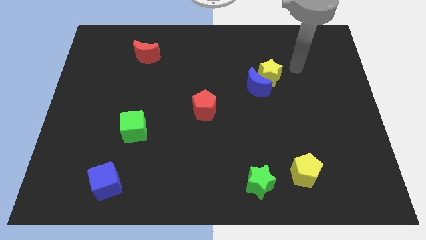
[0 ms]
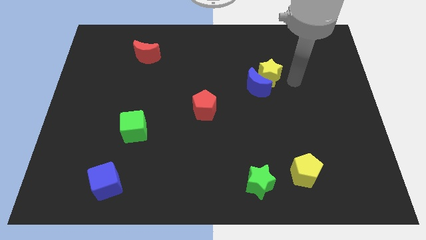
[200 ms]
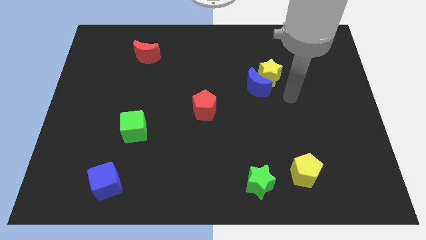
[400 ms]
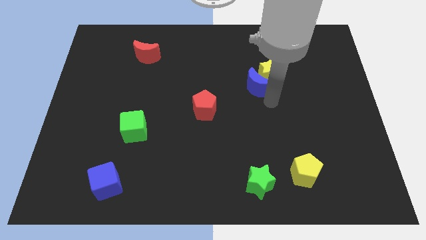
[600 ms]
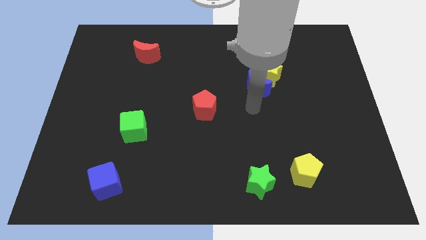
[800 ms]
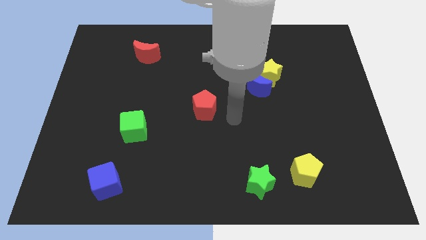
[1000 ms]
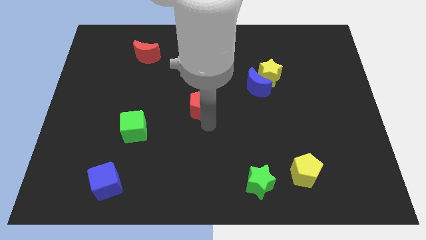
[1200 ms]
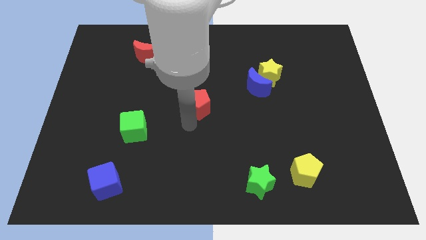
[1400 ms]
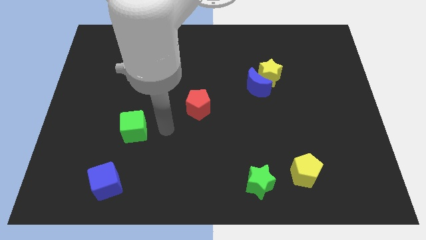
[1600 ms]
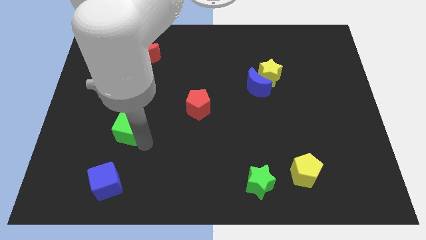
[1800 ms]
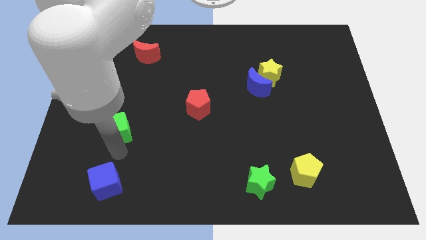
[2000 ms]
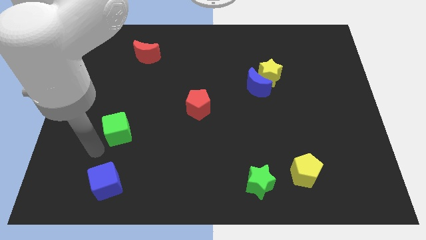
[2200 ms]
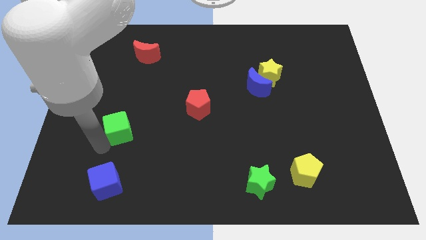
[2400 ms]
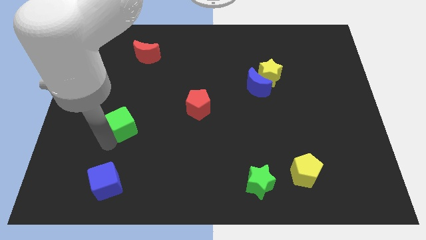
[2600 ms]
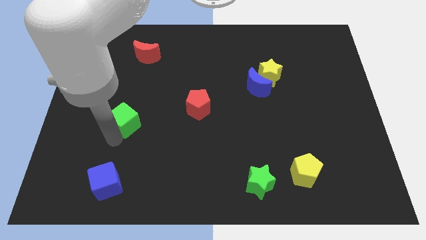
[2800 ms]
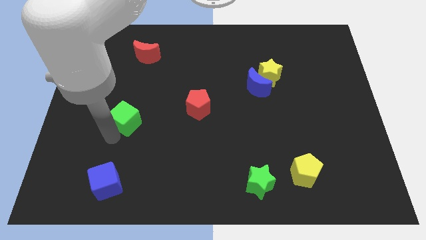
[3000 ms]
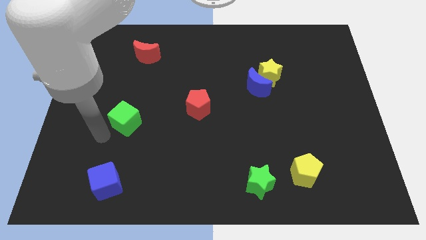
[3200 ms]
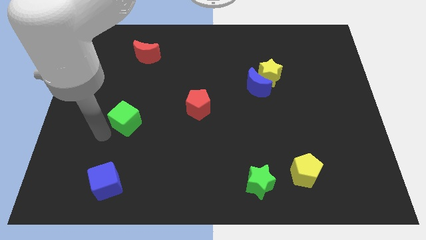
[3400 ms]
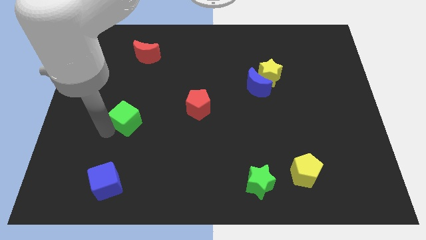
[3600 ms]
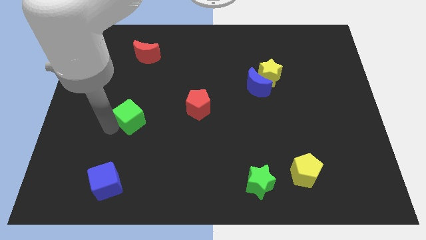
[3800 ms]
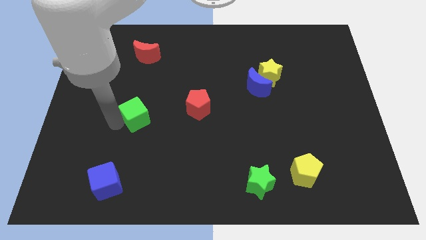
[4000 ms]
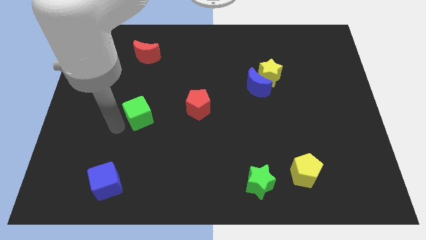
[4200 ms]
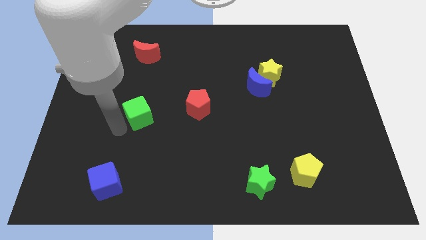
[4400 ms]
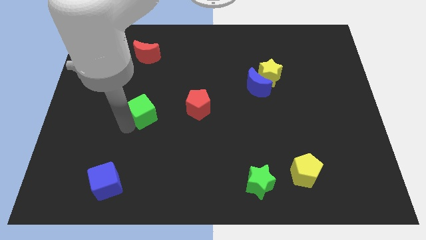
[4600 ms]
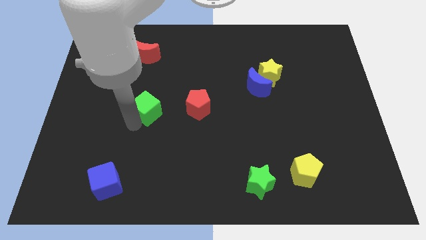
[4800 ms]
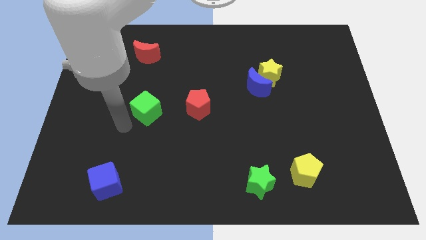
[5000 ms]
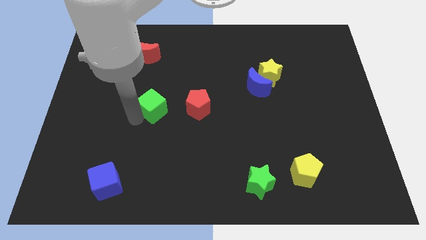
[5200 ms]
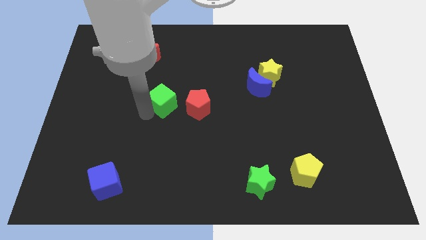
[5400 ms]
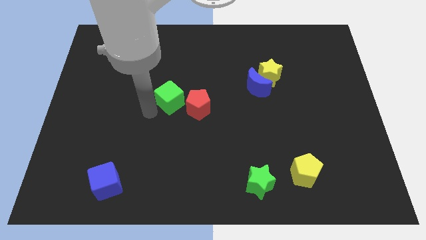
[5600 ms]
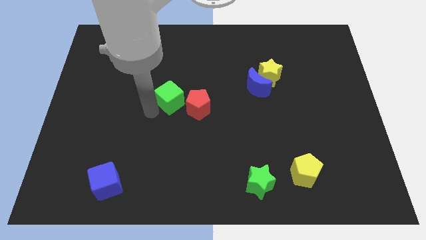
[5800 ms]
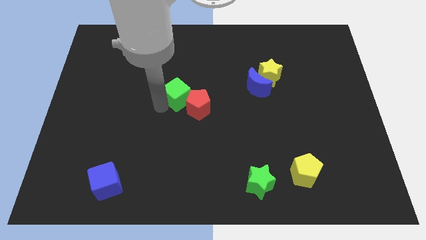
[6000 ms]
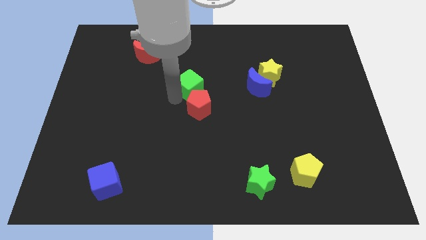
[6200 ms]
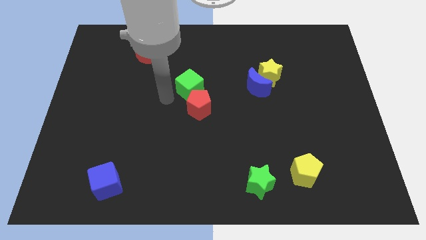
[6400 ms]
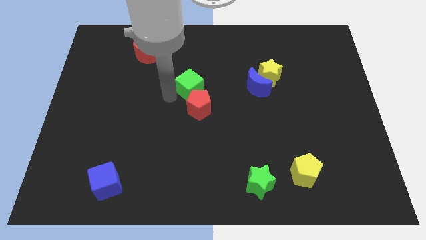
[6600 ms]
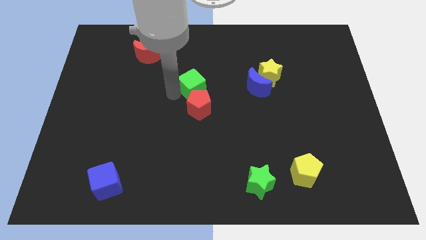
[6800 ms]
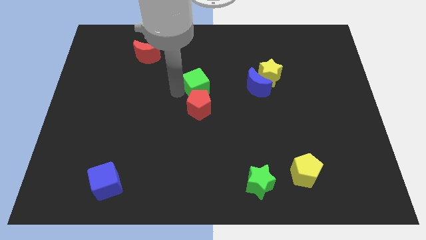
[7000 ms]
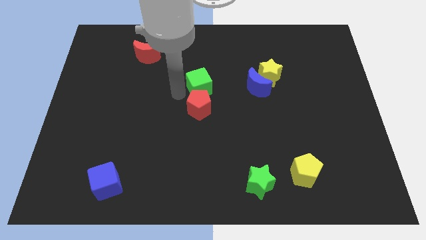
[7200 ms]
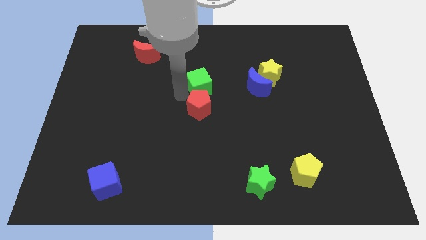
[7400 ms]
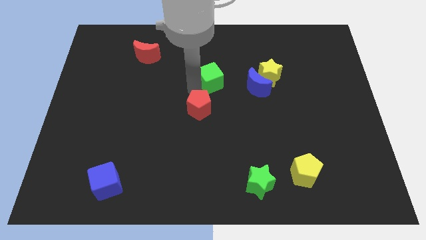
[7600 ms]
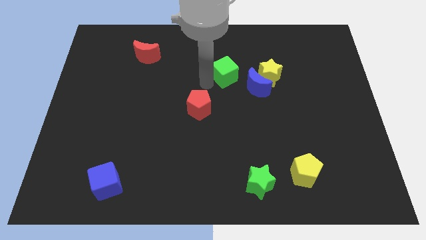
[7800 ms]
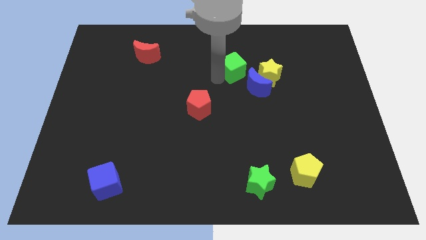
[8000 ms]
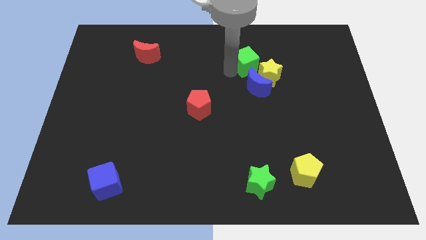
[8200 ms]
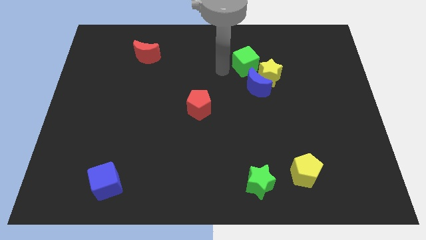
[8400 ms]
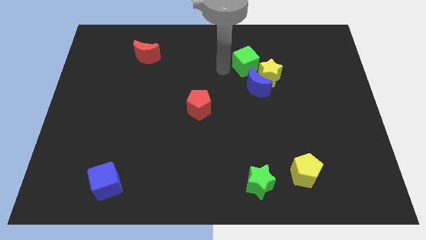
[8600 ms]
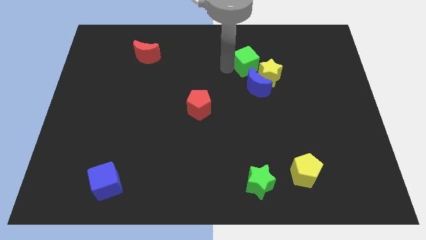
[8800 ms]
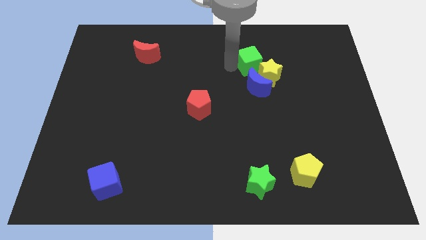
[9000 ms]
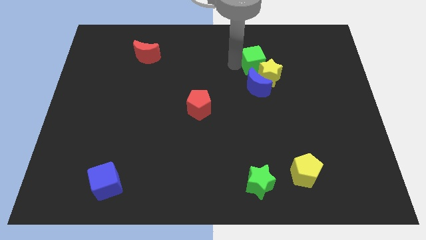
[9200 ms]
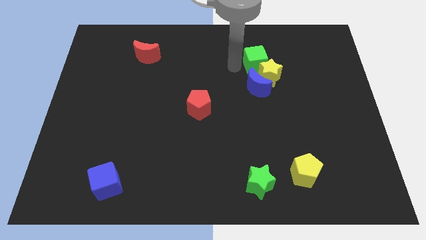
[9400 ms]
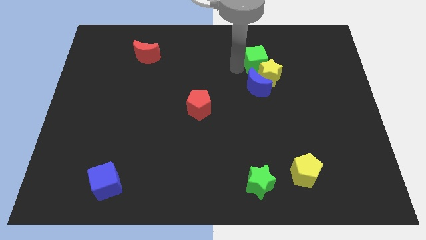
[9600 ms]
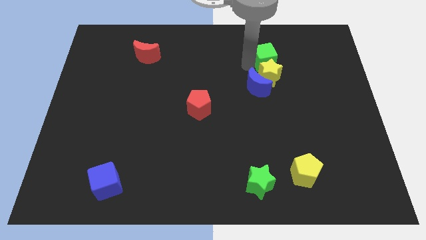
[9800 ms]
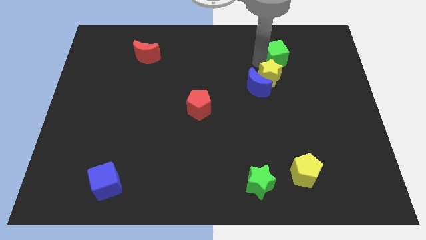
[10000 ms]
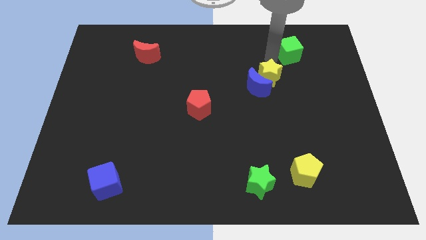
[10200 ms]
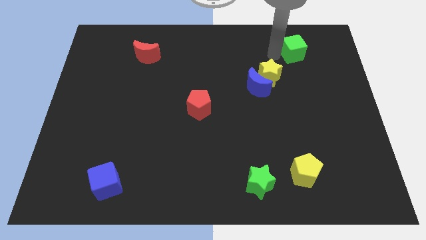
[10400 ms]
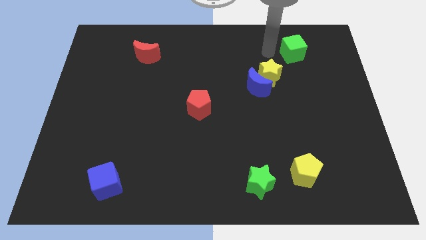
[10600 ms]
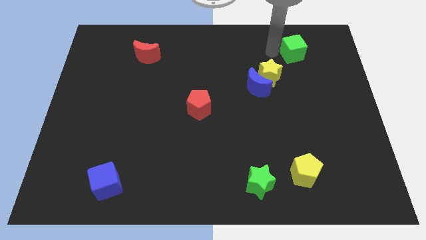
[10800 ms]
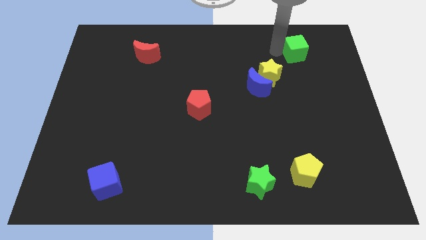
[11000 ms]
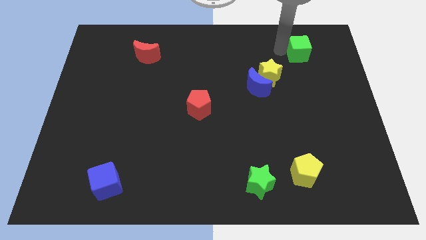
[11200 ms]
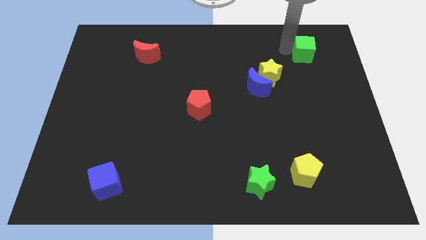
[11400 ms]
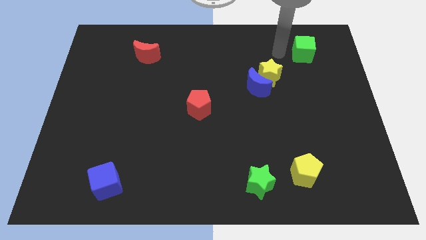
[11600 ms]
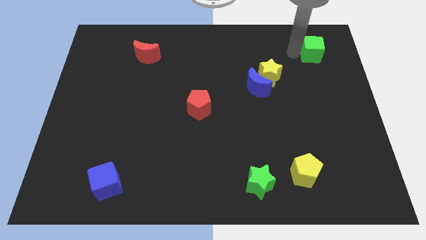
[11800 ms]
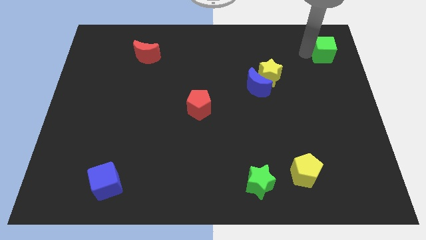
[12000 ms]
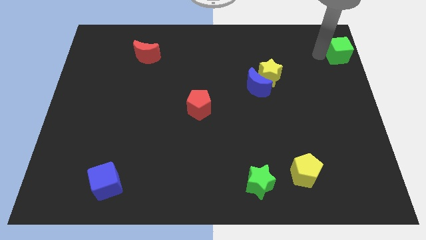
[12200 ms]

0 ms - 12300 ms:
push the green cube to the top right of the board
